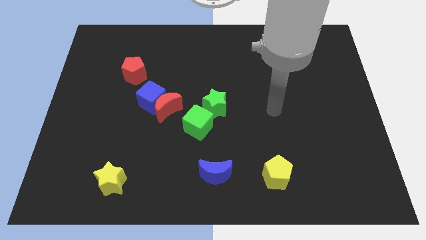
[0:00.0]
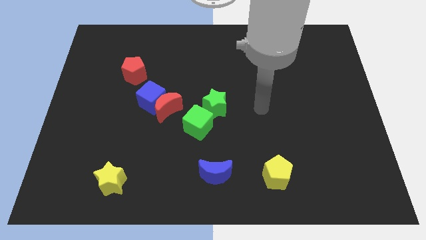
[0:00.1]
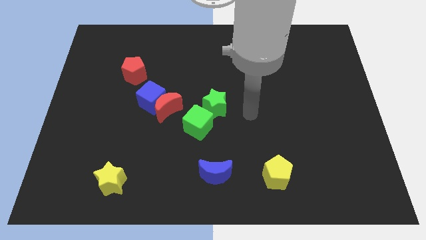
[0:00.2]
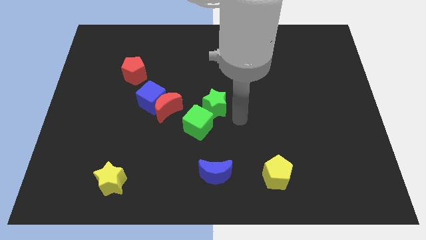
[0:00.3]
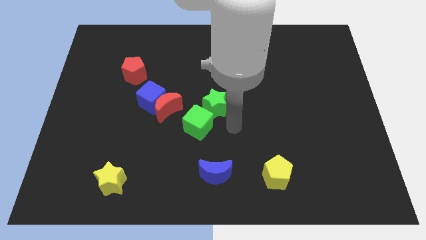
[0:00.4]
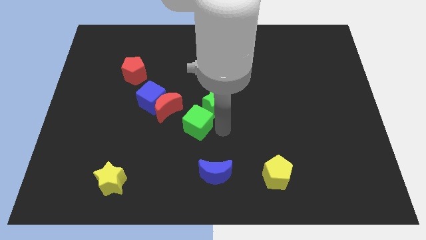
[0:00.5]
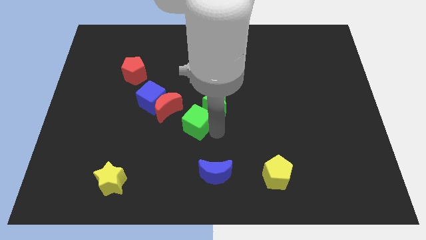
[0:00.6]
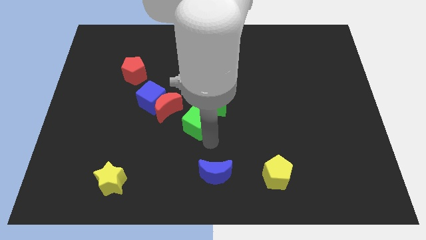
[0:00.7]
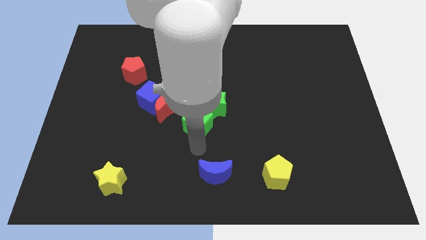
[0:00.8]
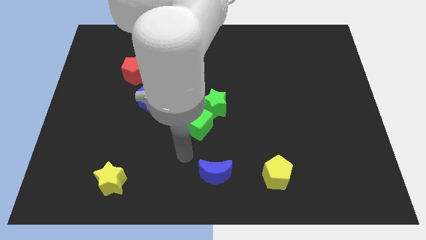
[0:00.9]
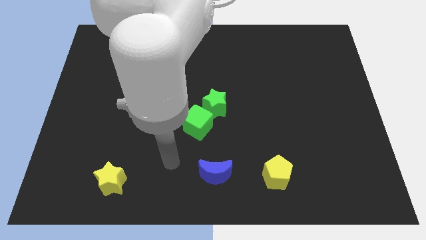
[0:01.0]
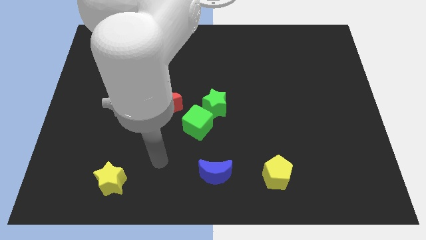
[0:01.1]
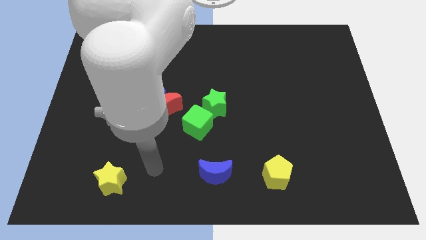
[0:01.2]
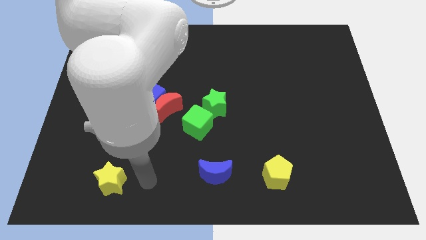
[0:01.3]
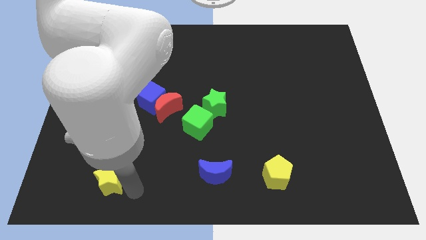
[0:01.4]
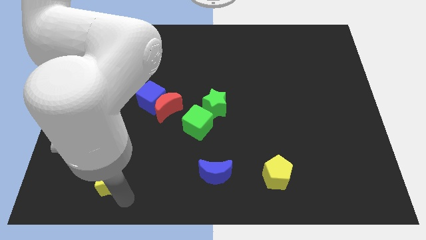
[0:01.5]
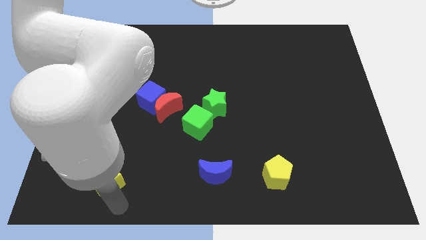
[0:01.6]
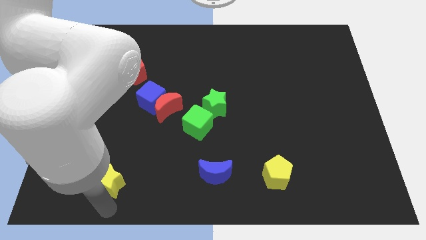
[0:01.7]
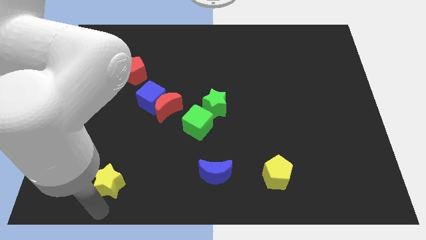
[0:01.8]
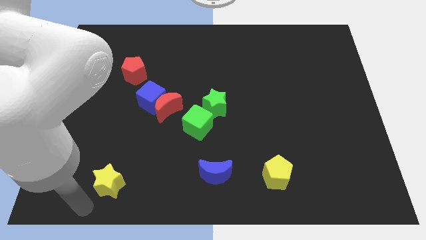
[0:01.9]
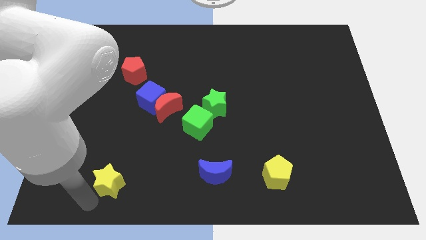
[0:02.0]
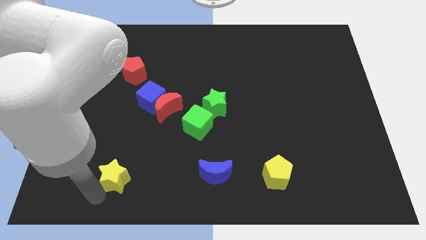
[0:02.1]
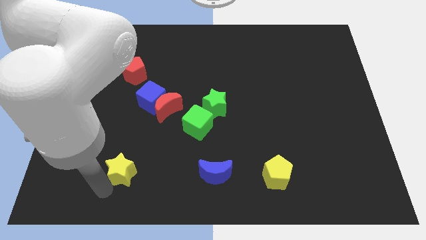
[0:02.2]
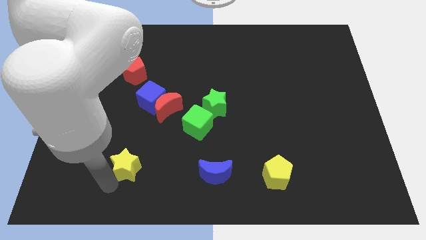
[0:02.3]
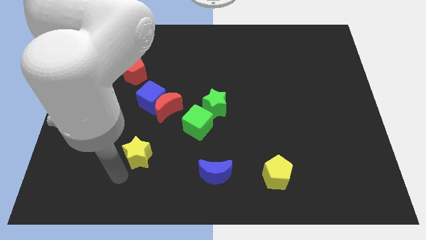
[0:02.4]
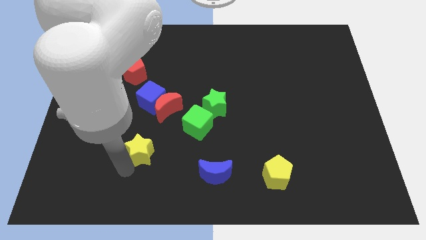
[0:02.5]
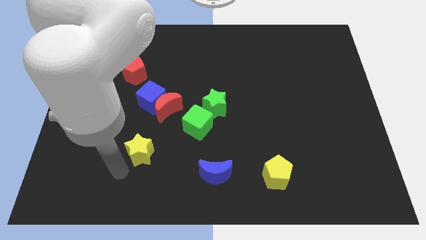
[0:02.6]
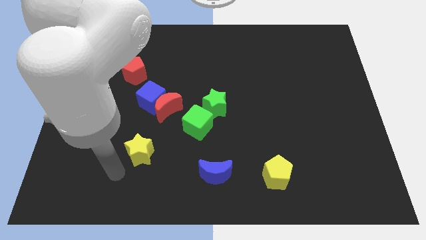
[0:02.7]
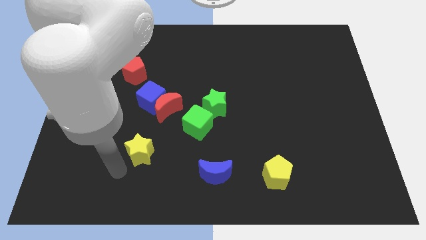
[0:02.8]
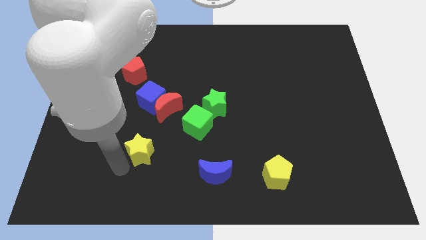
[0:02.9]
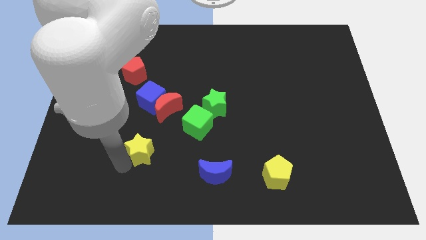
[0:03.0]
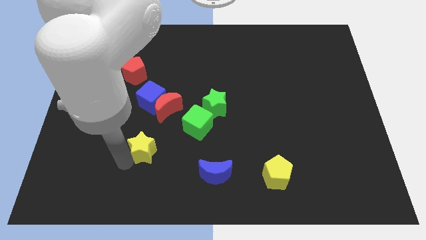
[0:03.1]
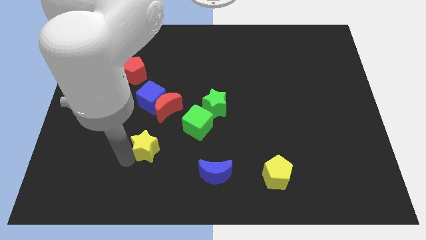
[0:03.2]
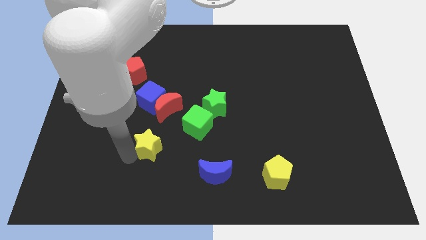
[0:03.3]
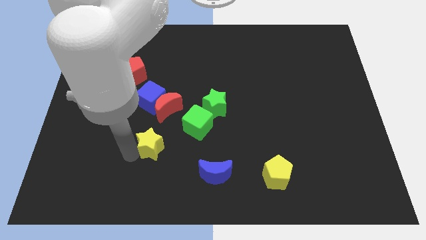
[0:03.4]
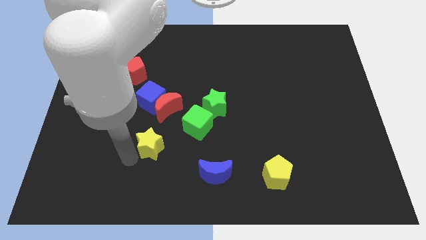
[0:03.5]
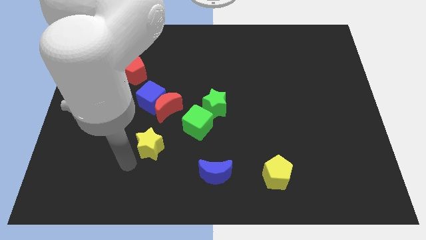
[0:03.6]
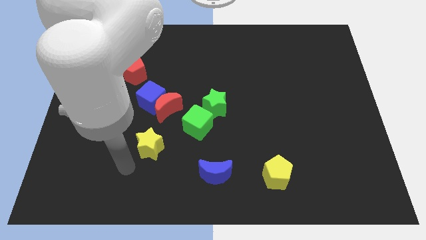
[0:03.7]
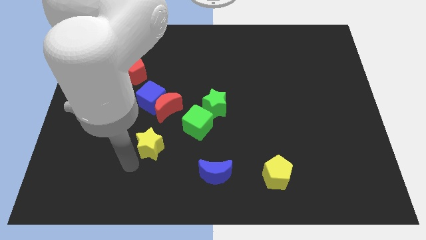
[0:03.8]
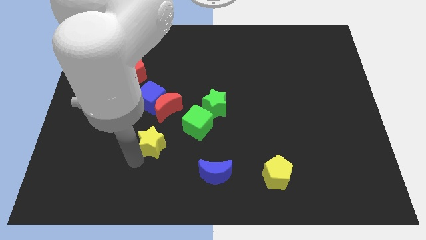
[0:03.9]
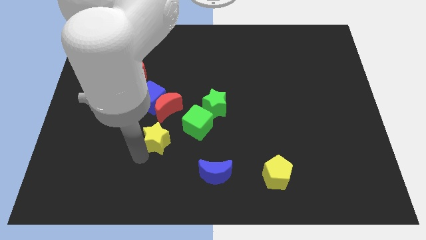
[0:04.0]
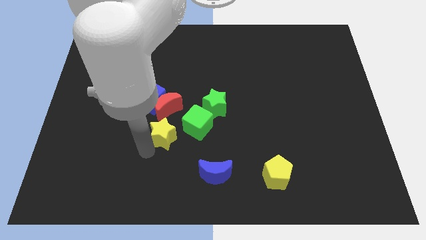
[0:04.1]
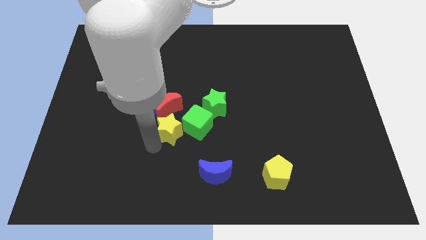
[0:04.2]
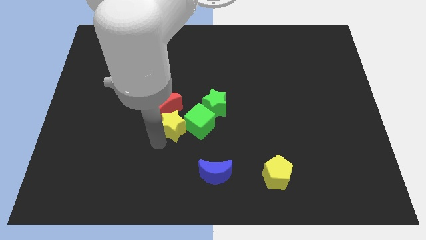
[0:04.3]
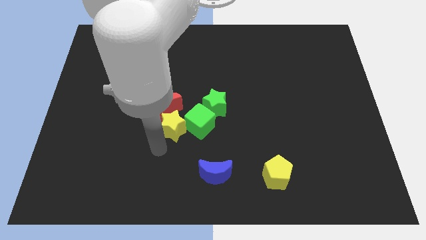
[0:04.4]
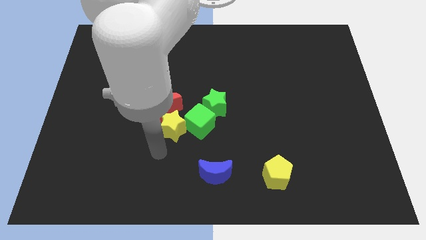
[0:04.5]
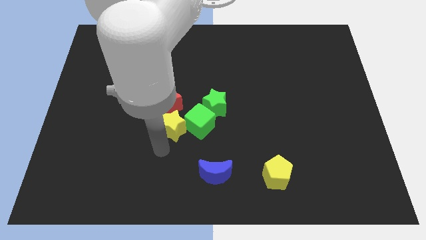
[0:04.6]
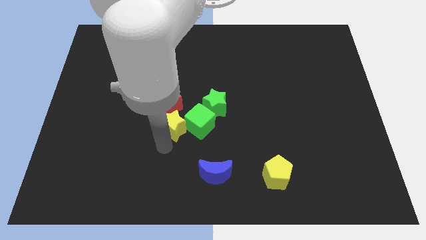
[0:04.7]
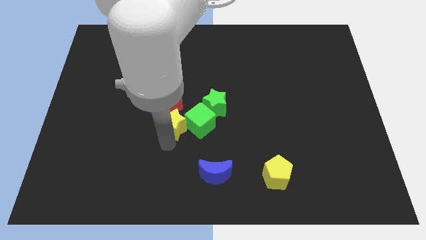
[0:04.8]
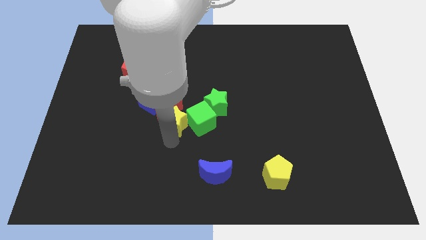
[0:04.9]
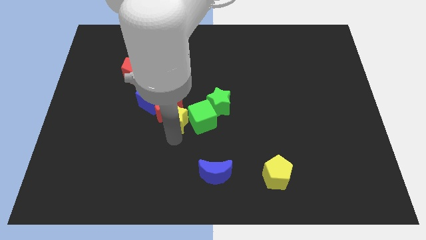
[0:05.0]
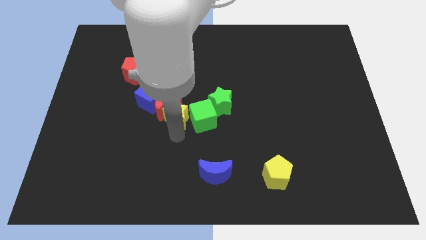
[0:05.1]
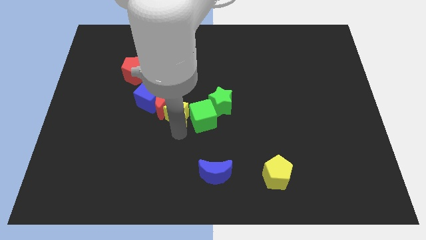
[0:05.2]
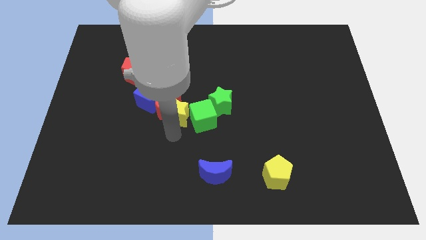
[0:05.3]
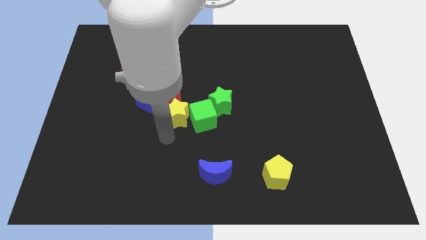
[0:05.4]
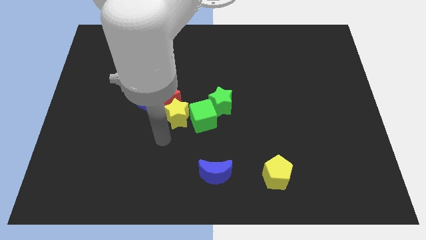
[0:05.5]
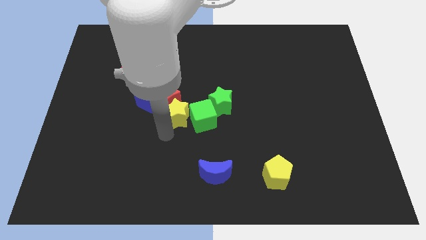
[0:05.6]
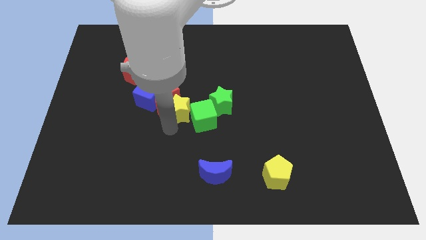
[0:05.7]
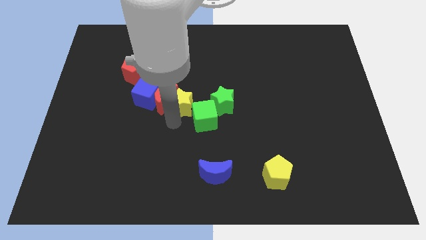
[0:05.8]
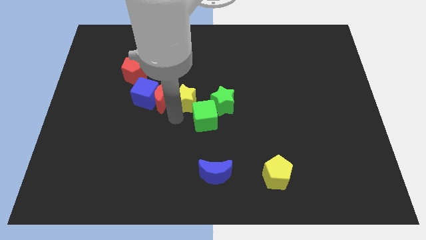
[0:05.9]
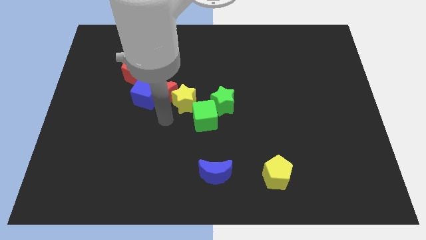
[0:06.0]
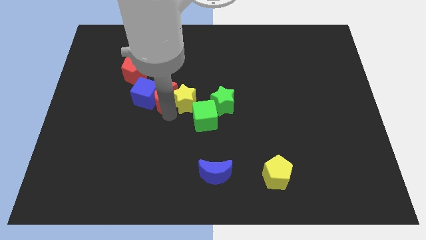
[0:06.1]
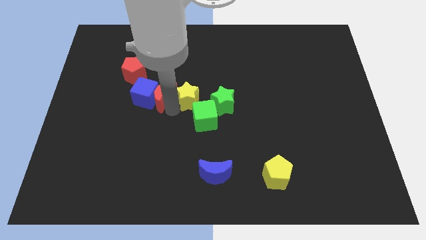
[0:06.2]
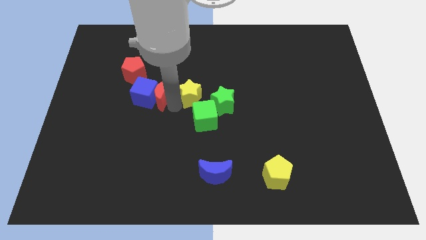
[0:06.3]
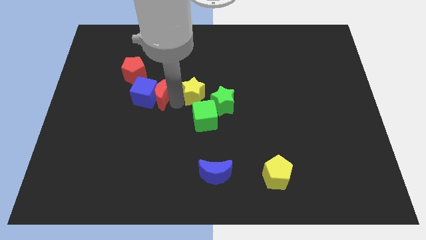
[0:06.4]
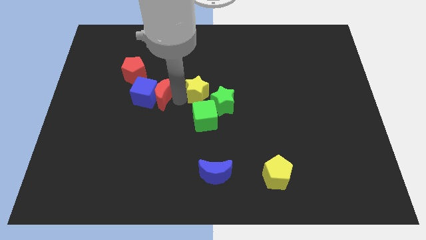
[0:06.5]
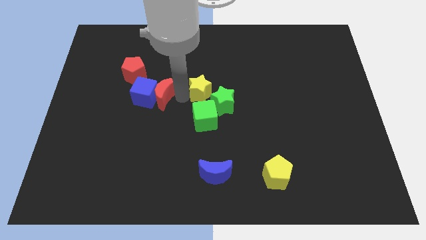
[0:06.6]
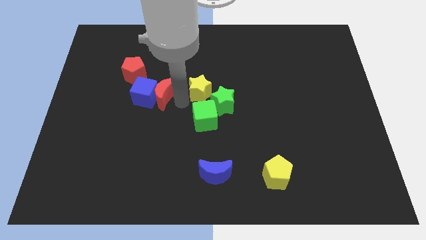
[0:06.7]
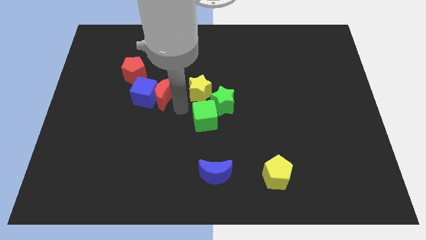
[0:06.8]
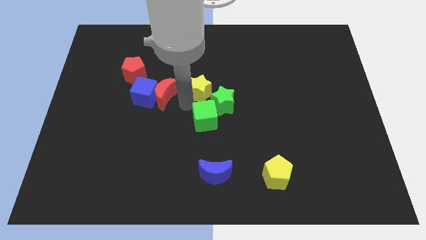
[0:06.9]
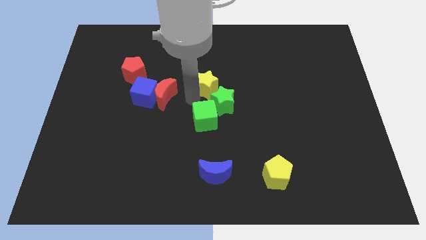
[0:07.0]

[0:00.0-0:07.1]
push the yellow star above the green star

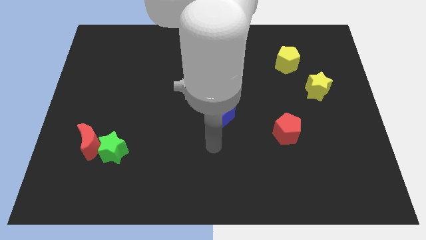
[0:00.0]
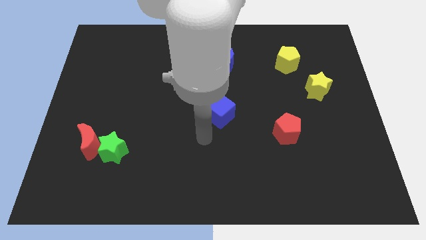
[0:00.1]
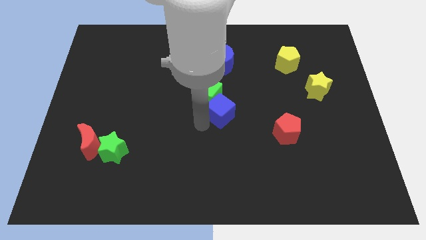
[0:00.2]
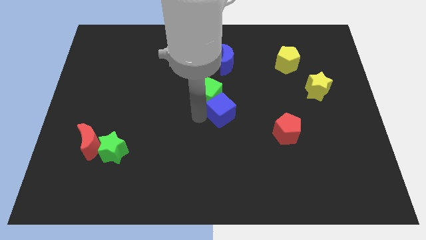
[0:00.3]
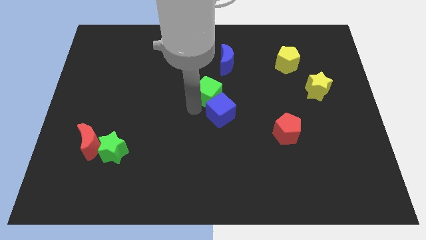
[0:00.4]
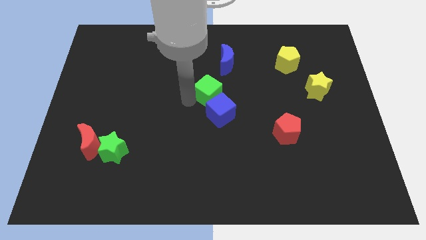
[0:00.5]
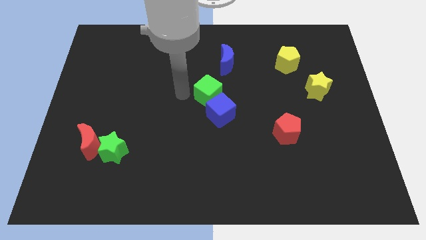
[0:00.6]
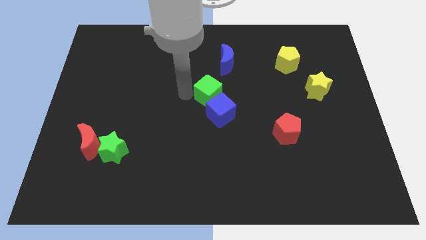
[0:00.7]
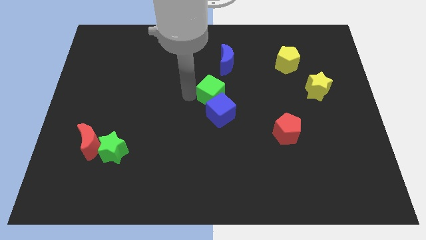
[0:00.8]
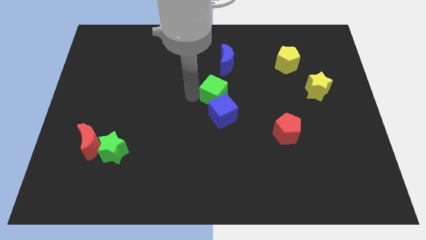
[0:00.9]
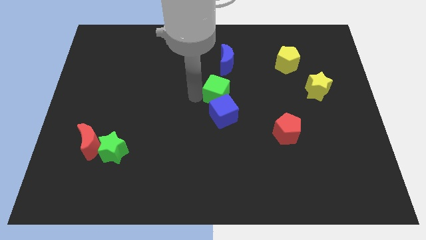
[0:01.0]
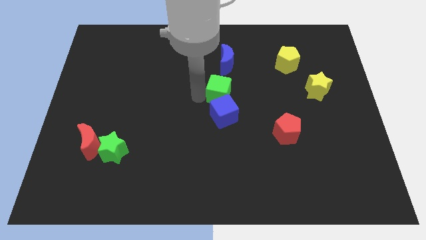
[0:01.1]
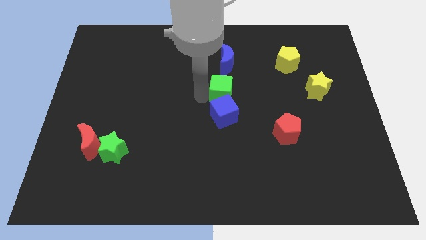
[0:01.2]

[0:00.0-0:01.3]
slide the green cube to the top right side of the blue cube

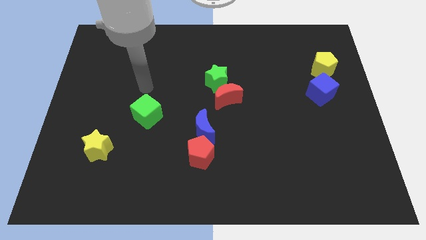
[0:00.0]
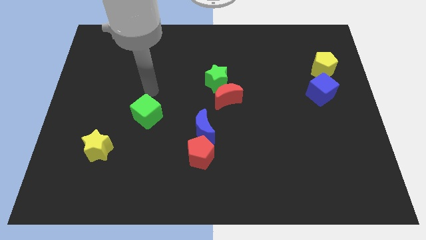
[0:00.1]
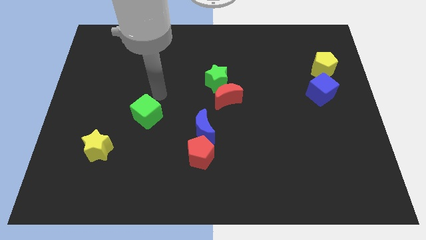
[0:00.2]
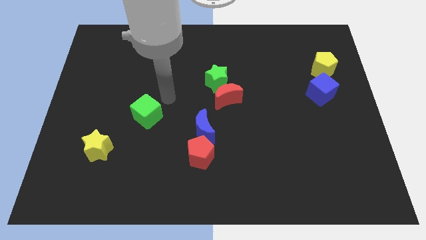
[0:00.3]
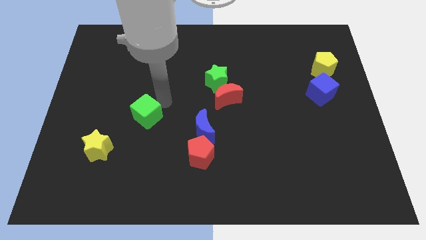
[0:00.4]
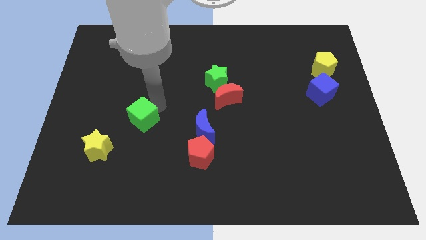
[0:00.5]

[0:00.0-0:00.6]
push the green cube to the top right side of the yellow star
